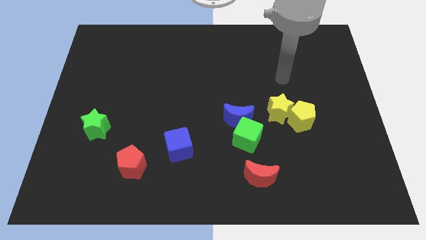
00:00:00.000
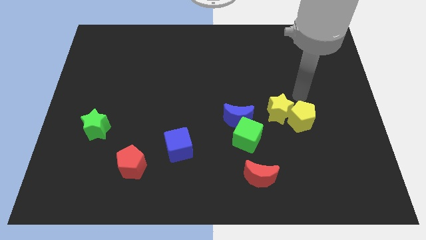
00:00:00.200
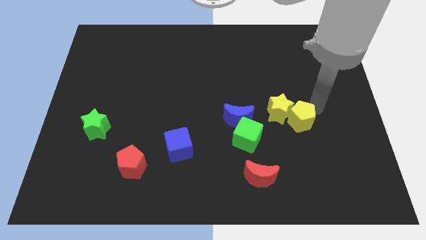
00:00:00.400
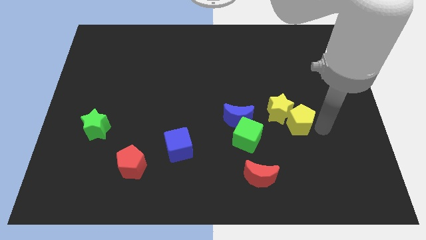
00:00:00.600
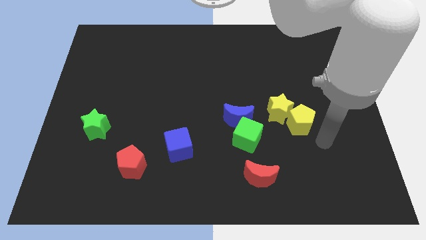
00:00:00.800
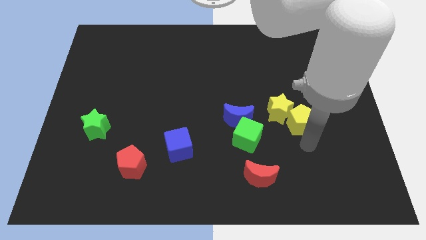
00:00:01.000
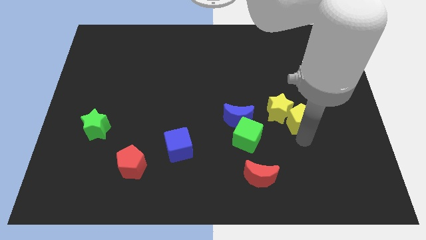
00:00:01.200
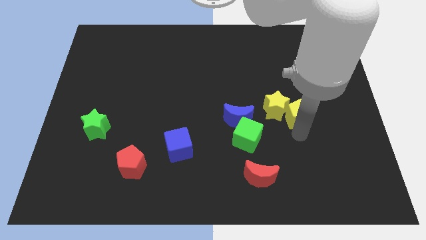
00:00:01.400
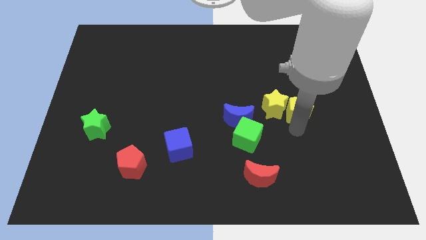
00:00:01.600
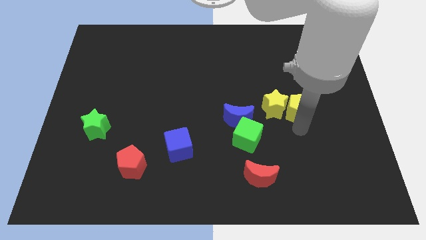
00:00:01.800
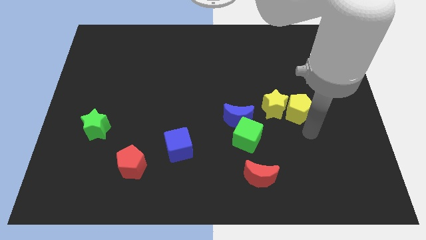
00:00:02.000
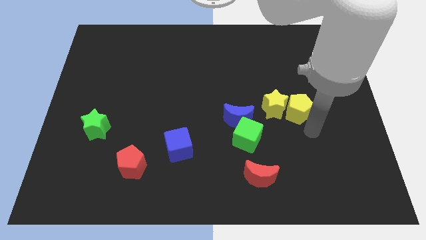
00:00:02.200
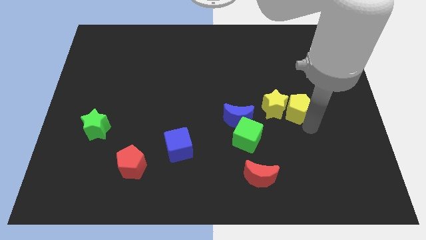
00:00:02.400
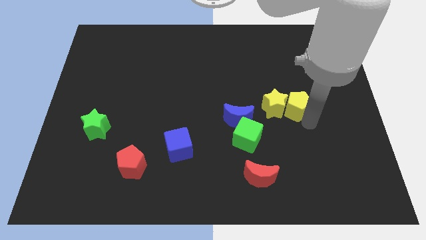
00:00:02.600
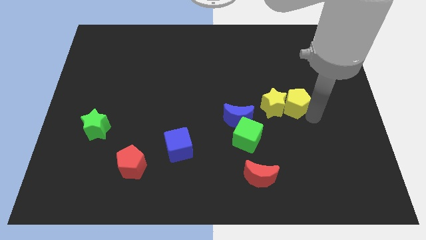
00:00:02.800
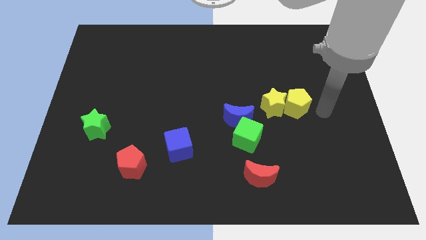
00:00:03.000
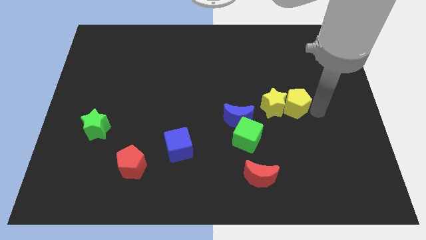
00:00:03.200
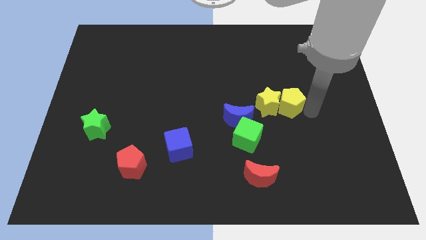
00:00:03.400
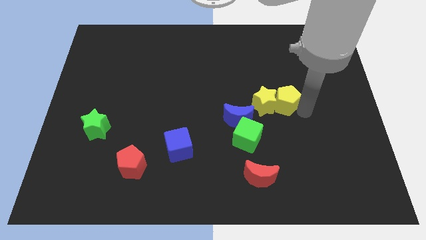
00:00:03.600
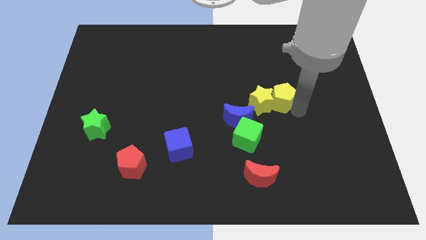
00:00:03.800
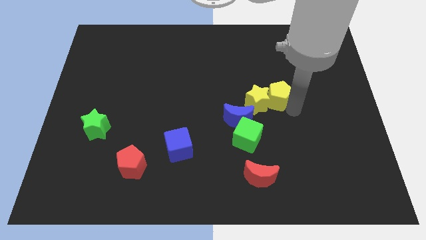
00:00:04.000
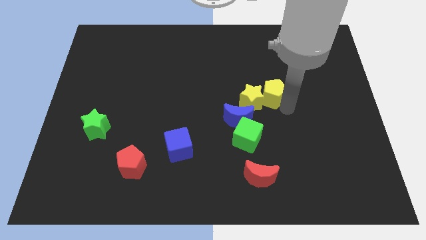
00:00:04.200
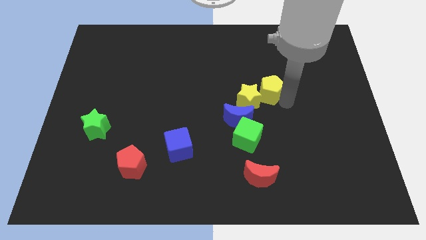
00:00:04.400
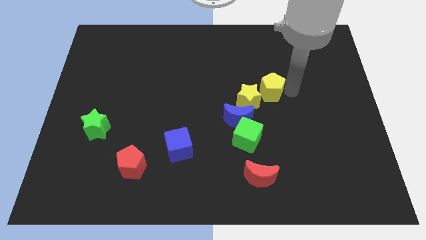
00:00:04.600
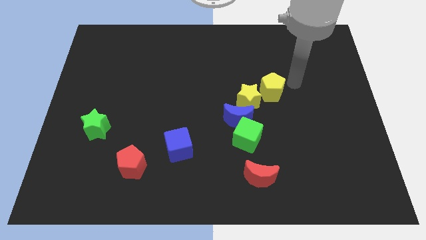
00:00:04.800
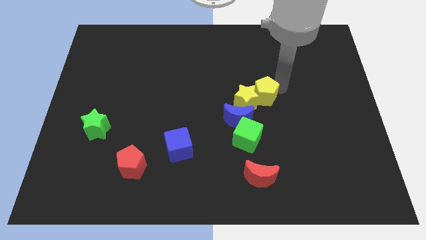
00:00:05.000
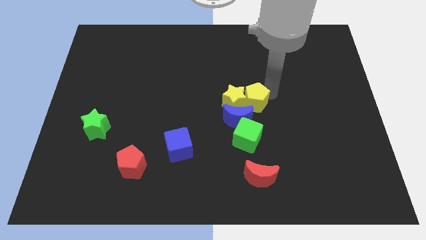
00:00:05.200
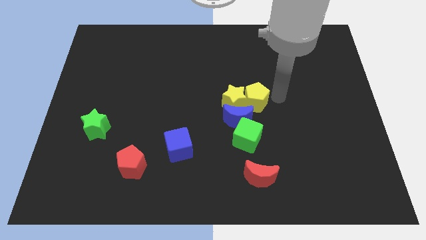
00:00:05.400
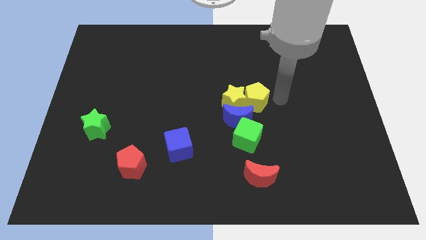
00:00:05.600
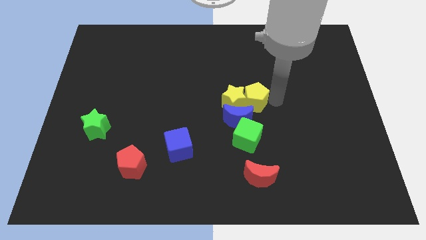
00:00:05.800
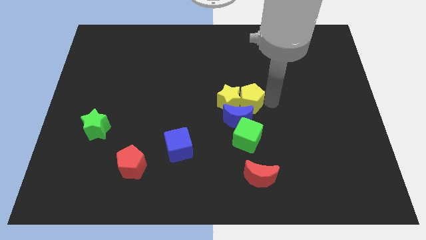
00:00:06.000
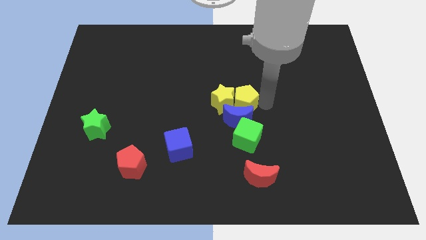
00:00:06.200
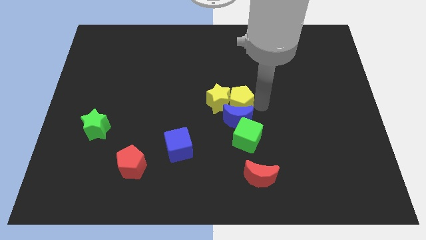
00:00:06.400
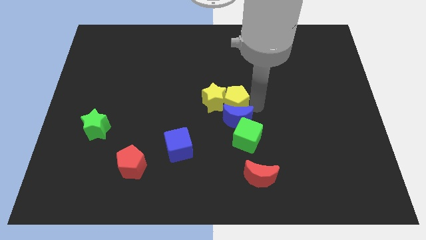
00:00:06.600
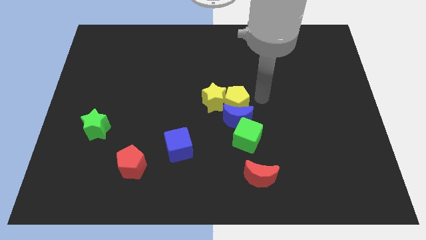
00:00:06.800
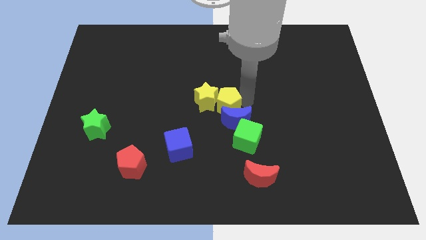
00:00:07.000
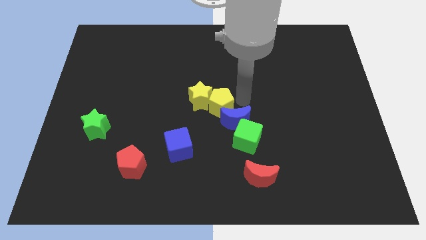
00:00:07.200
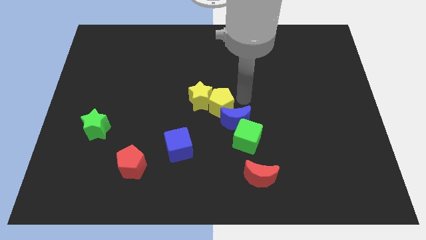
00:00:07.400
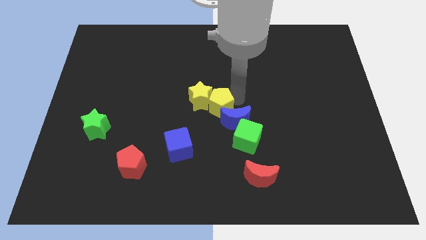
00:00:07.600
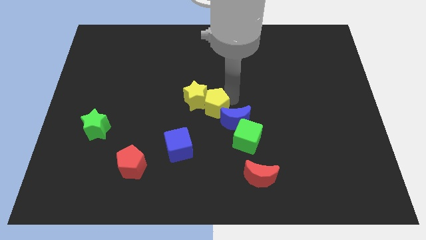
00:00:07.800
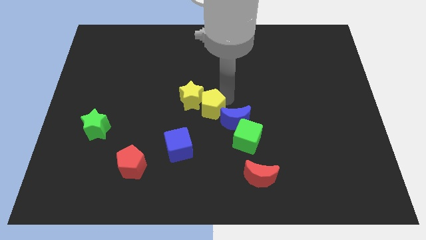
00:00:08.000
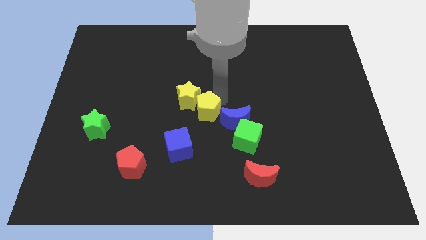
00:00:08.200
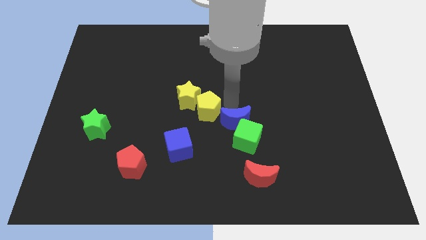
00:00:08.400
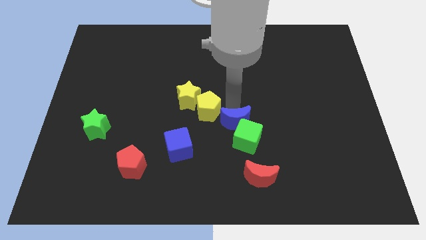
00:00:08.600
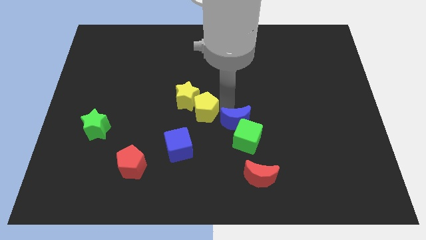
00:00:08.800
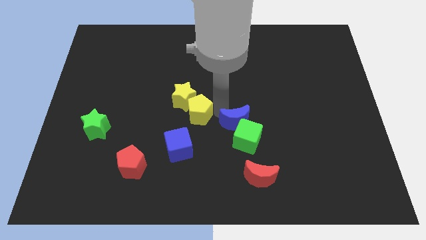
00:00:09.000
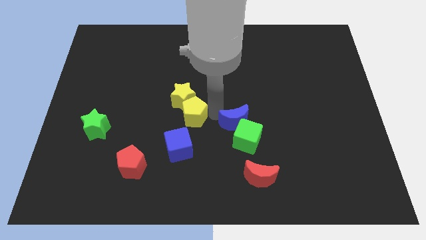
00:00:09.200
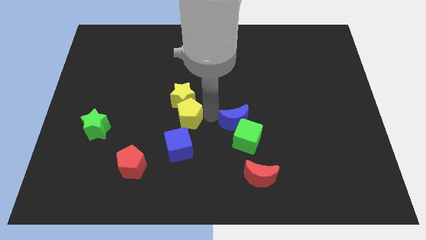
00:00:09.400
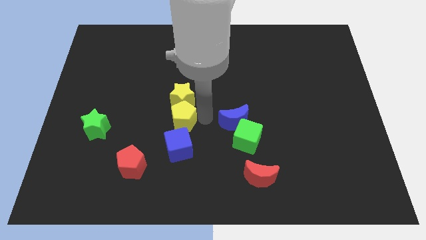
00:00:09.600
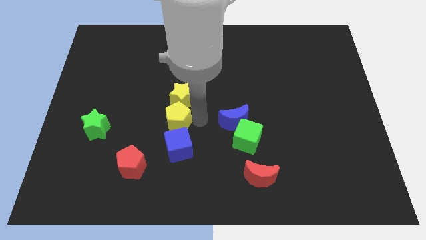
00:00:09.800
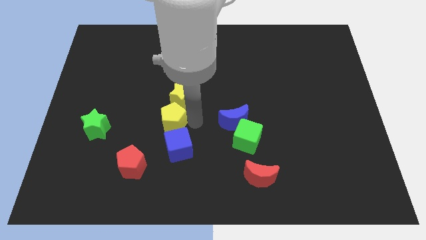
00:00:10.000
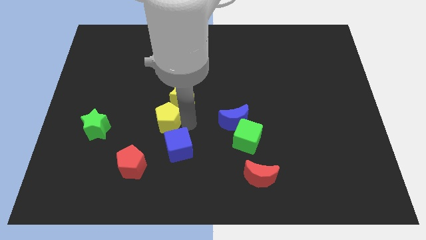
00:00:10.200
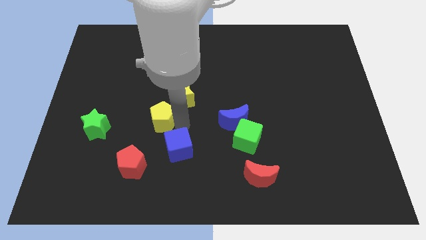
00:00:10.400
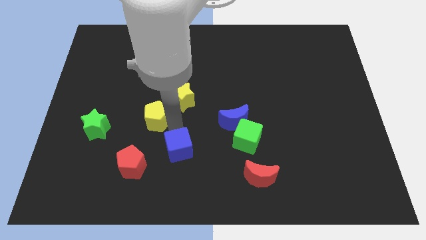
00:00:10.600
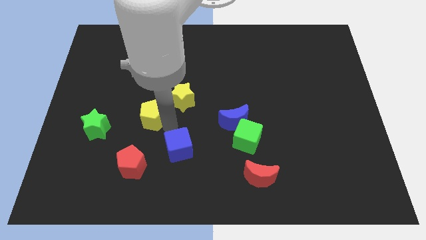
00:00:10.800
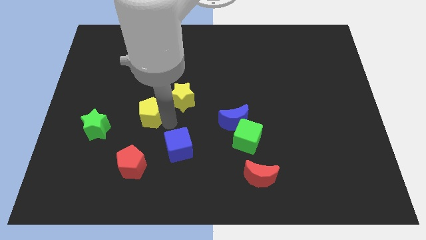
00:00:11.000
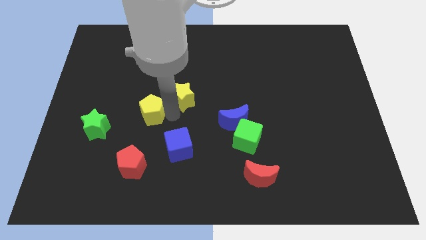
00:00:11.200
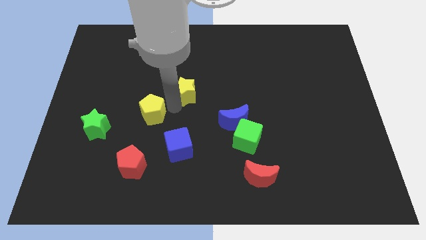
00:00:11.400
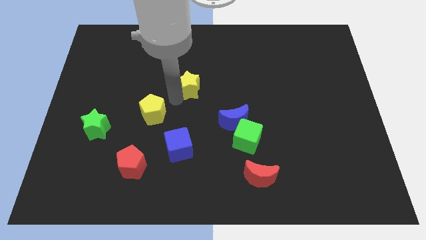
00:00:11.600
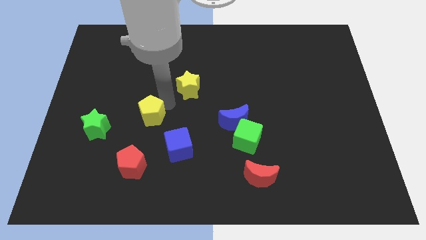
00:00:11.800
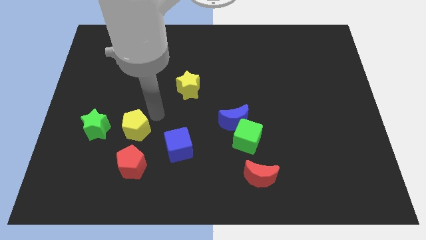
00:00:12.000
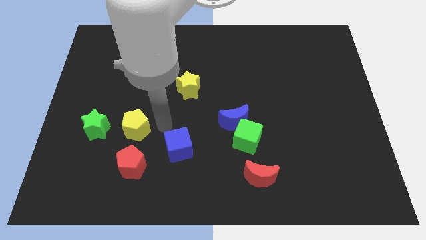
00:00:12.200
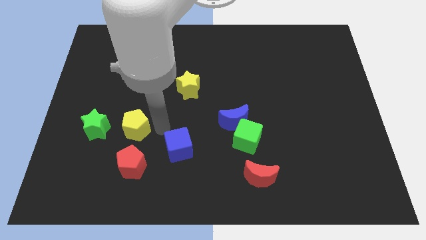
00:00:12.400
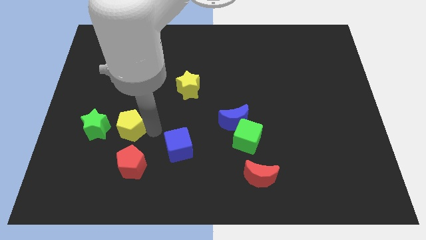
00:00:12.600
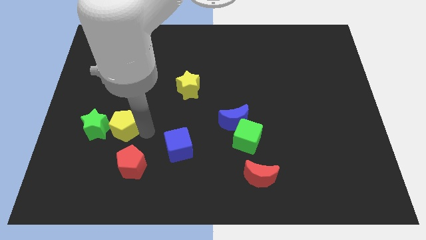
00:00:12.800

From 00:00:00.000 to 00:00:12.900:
move the yellow pentagon to the green star
